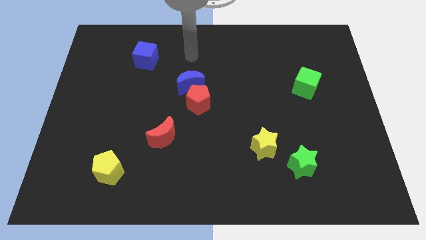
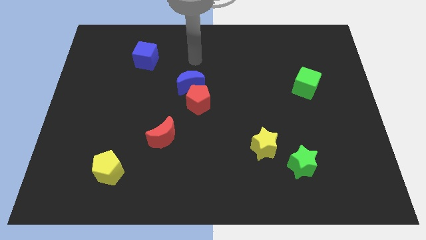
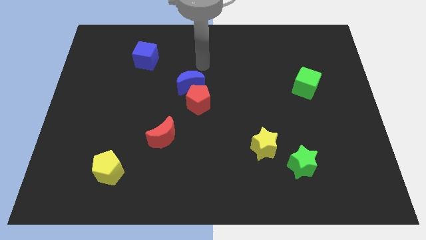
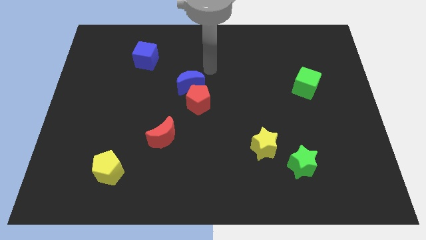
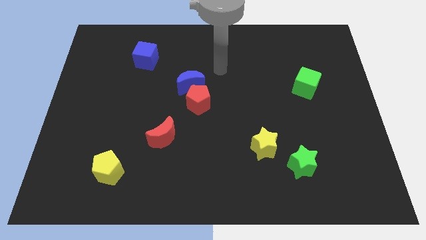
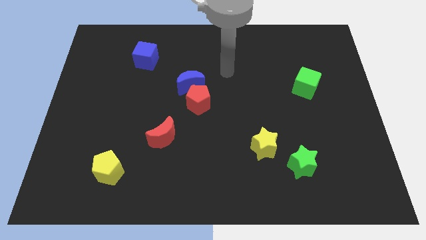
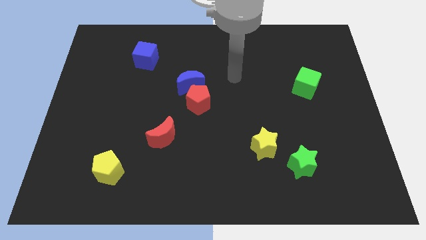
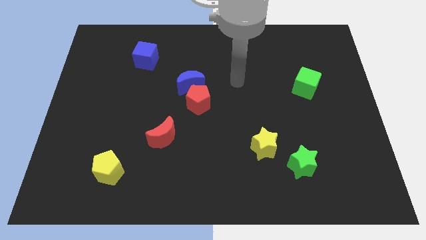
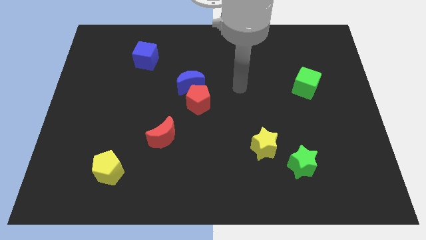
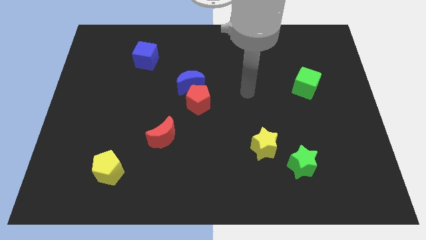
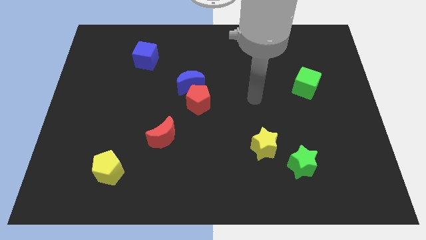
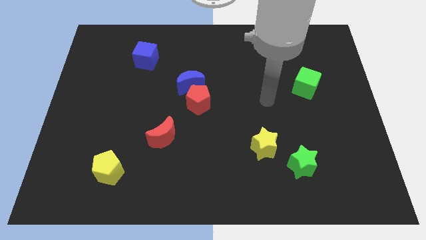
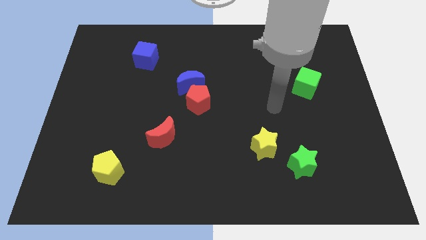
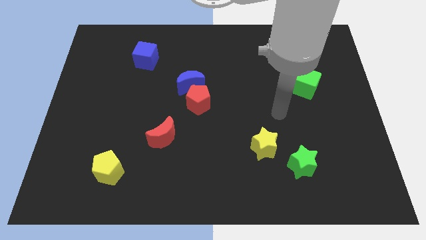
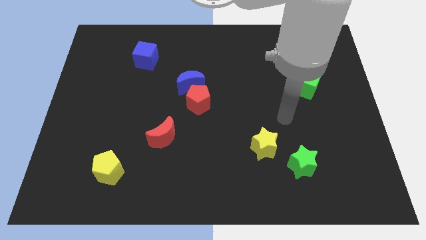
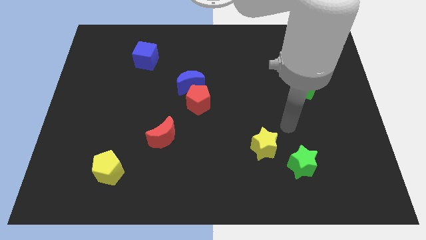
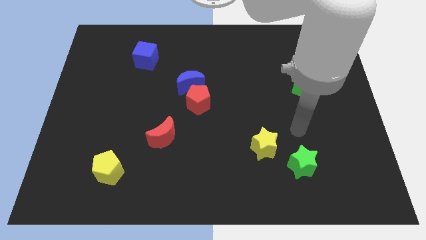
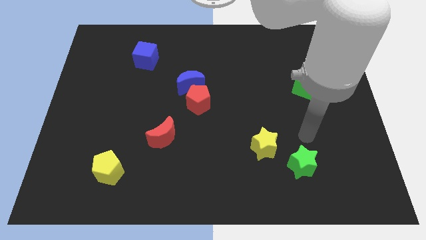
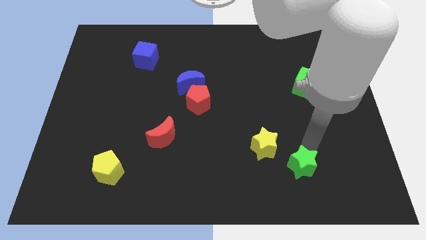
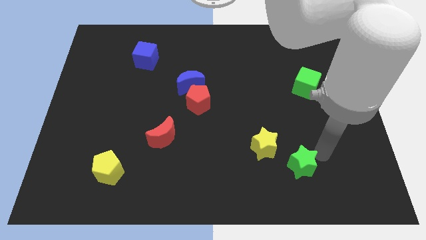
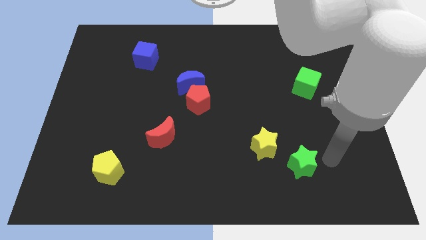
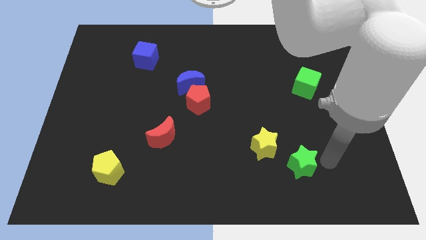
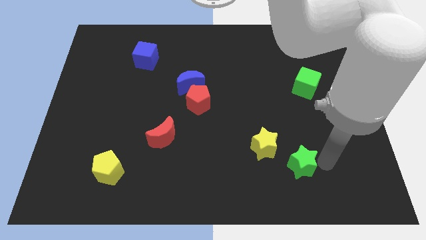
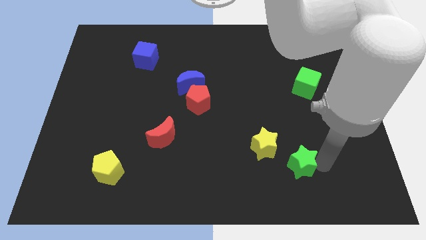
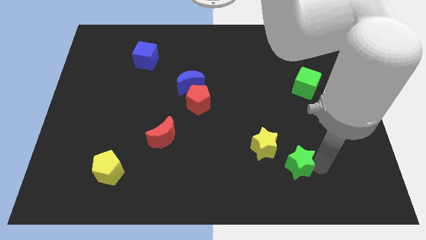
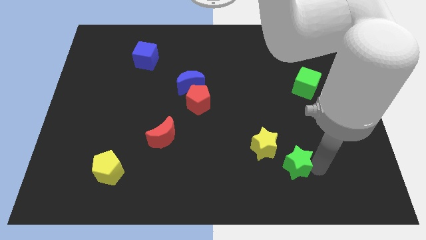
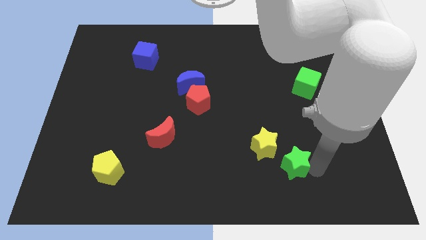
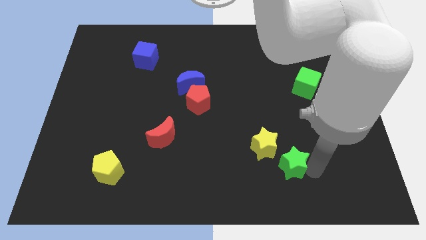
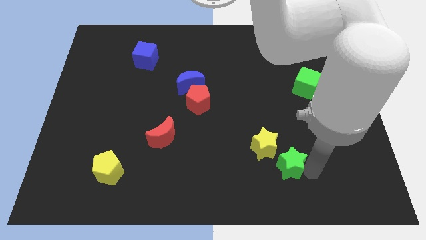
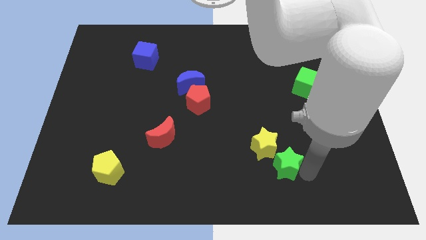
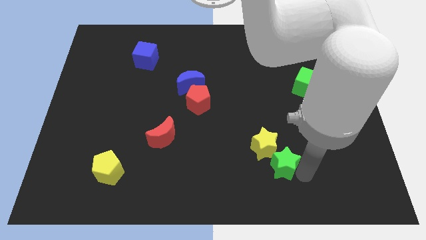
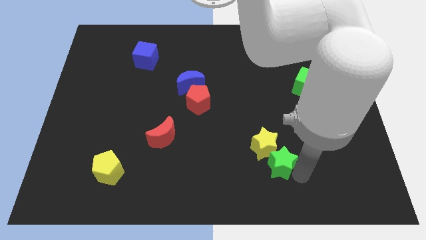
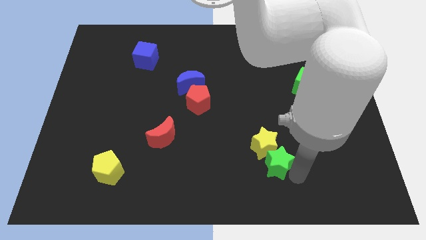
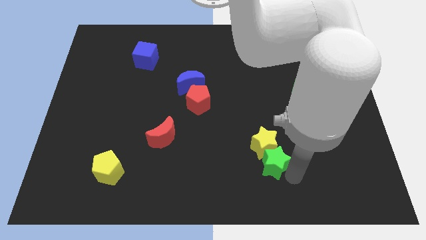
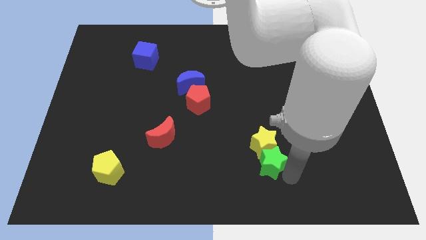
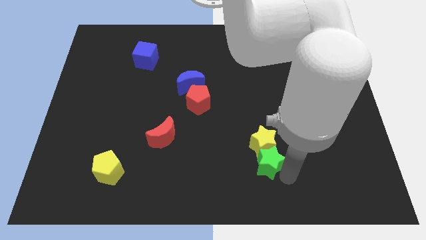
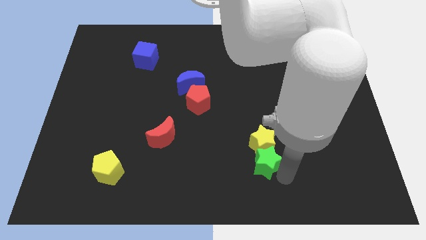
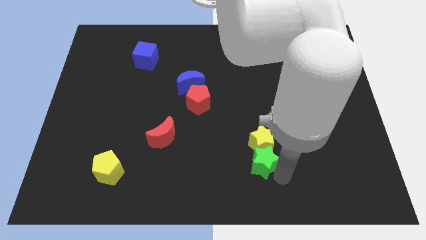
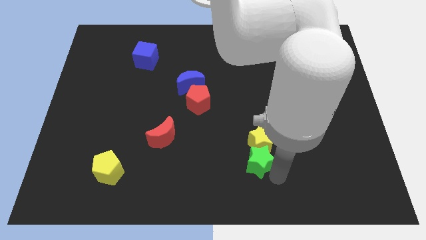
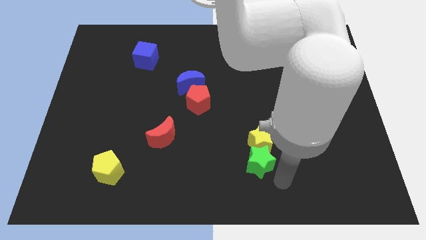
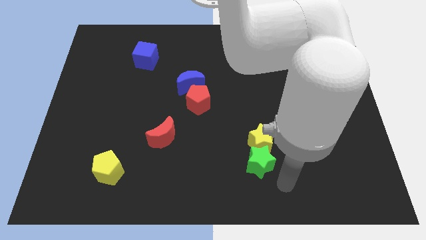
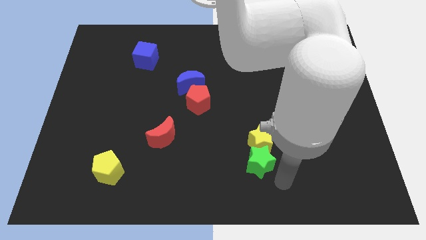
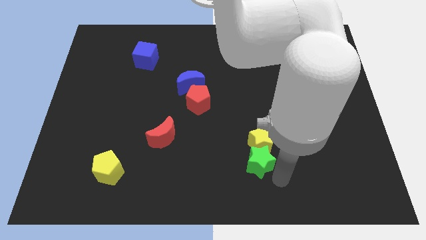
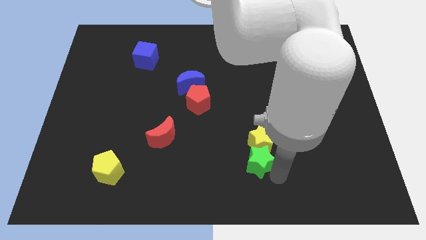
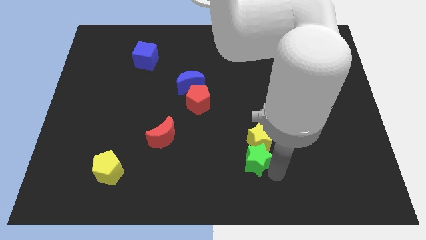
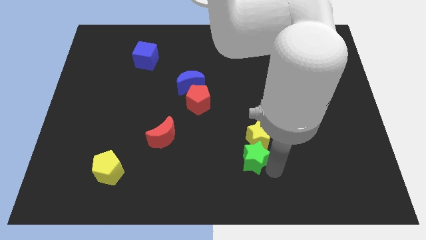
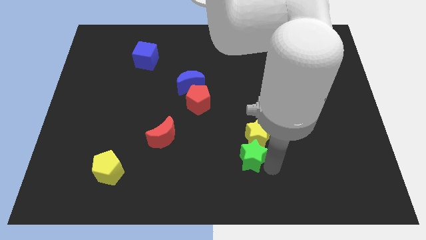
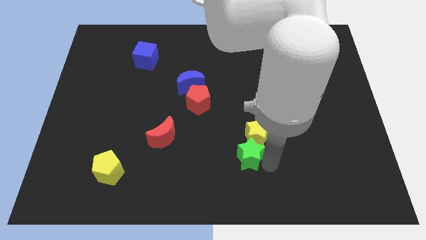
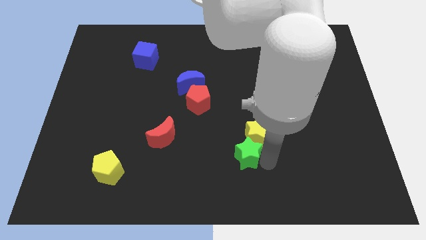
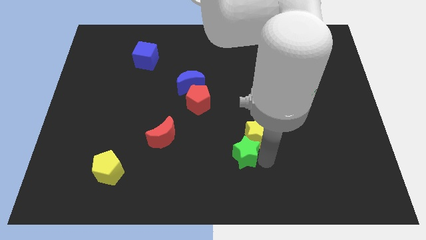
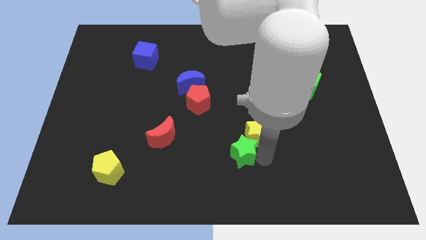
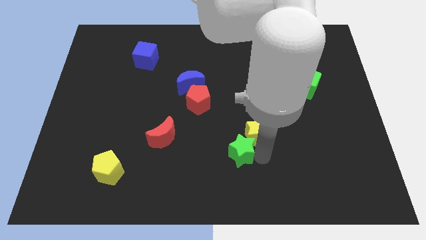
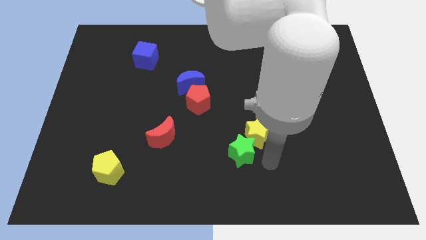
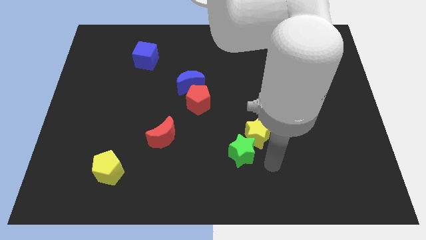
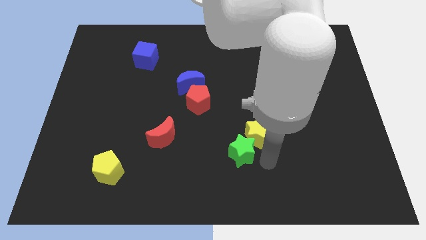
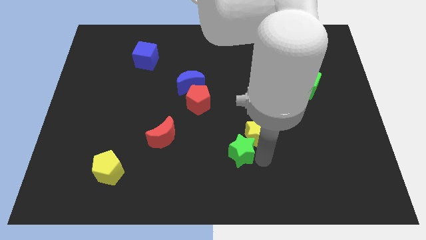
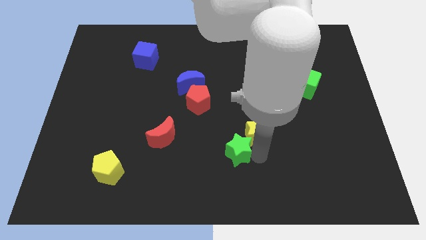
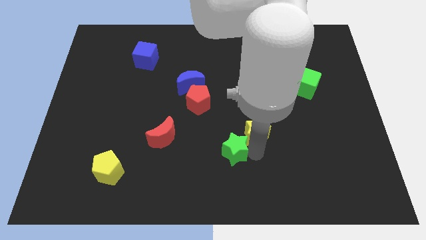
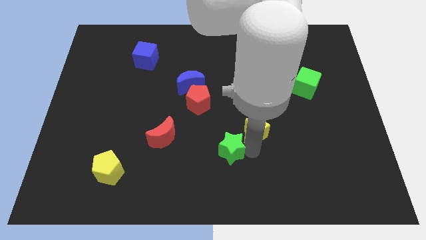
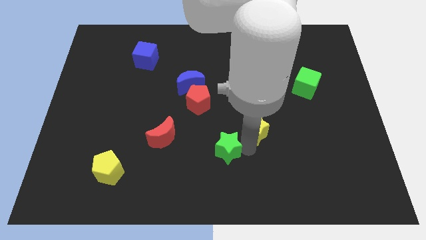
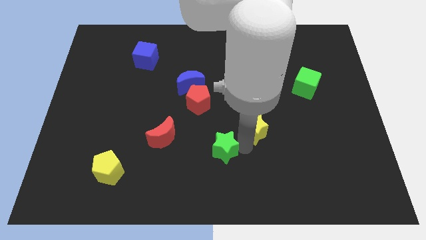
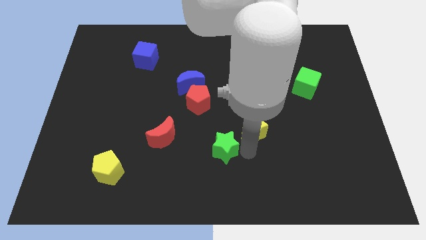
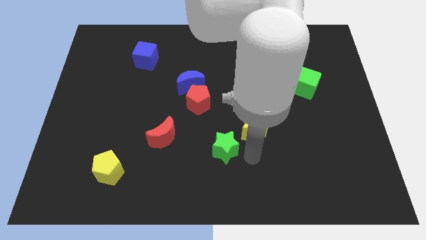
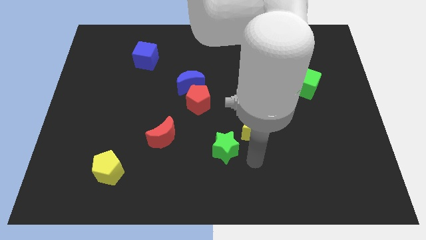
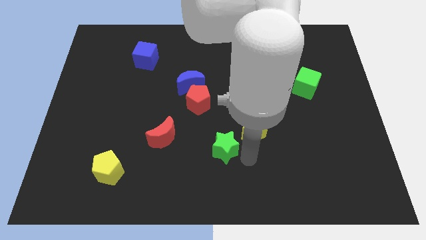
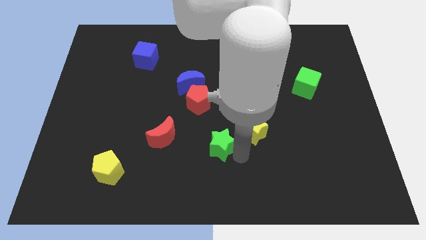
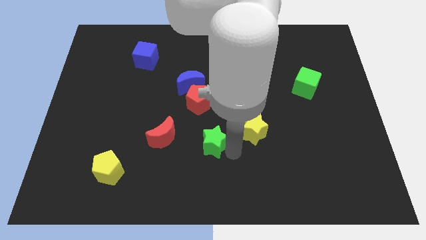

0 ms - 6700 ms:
slide the green star to the bottom side of the red pentagon
